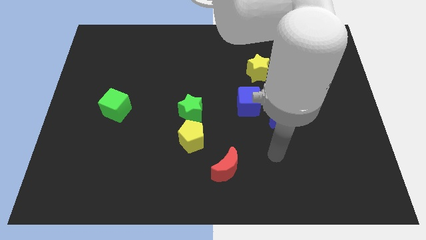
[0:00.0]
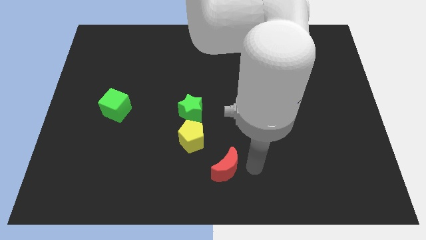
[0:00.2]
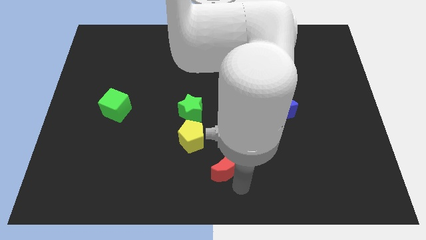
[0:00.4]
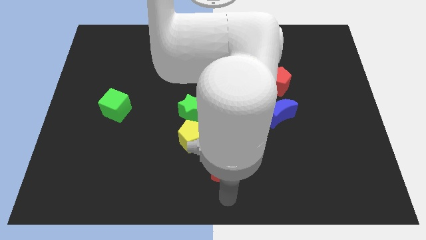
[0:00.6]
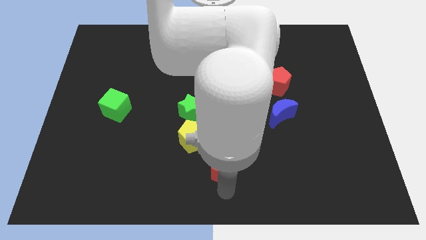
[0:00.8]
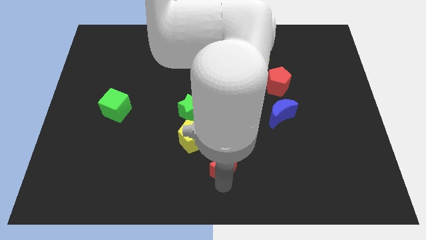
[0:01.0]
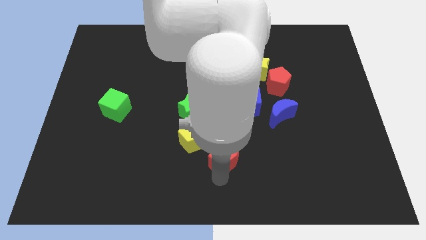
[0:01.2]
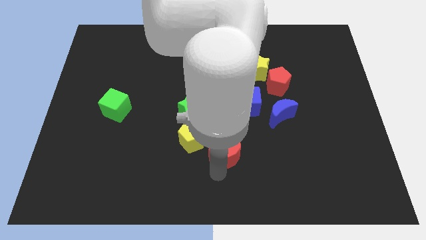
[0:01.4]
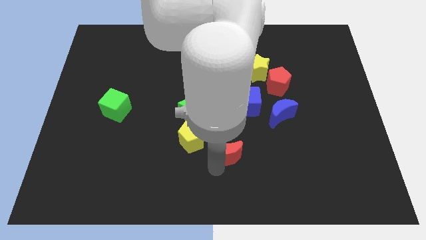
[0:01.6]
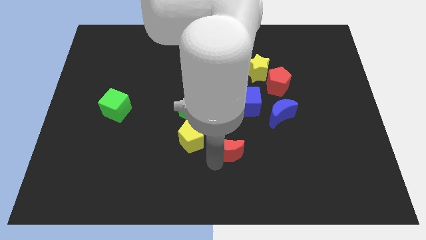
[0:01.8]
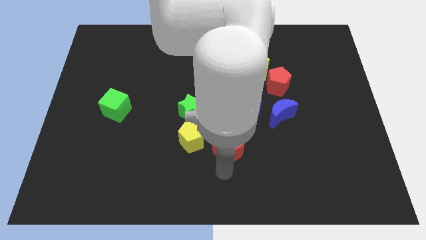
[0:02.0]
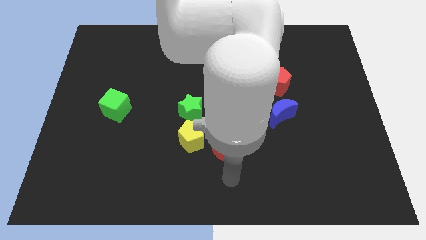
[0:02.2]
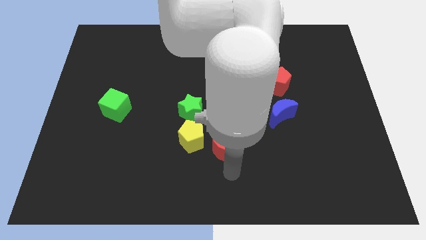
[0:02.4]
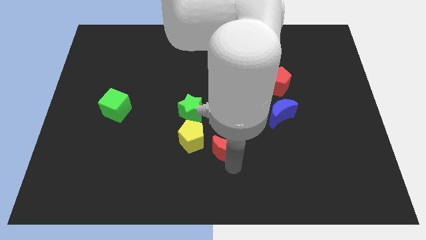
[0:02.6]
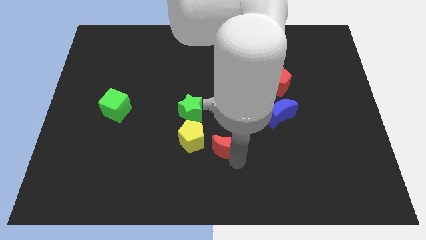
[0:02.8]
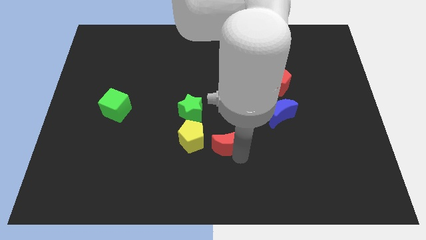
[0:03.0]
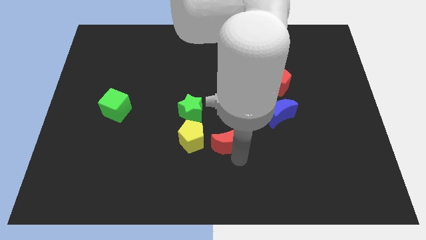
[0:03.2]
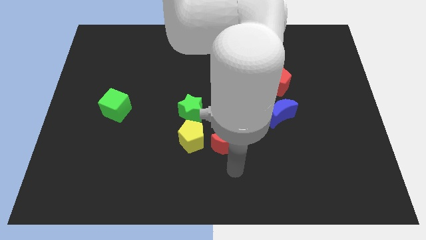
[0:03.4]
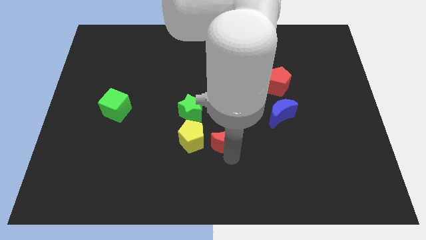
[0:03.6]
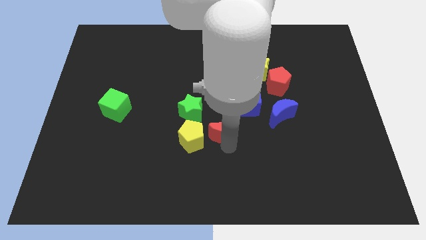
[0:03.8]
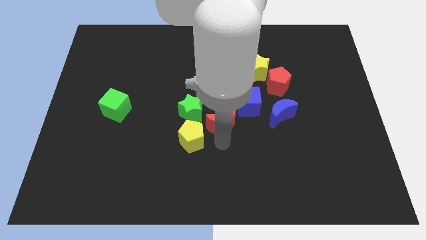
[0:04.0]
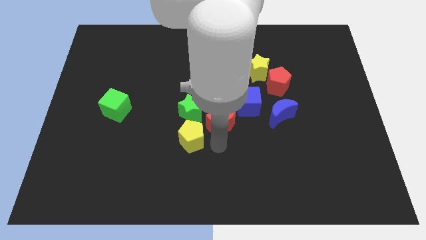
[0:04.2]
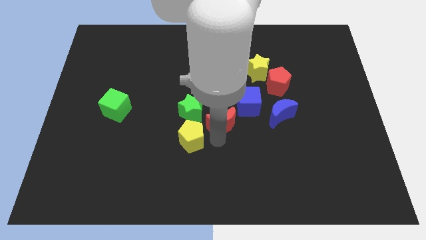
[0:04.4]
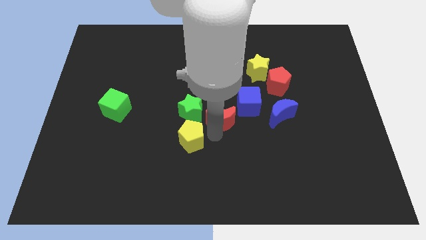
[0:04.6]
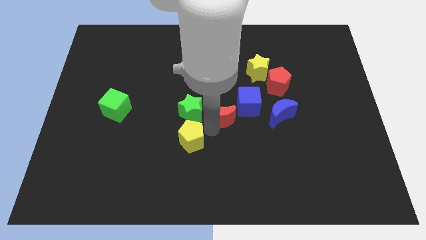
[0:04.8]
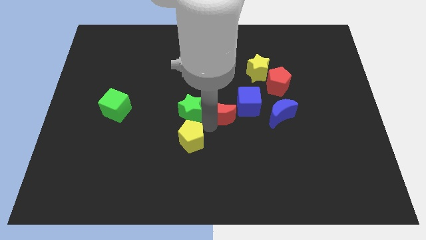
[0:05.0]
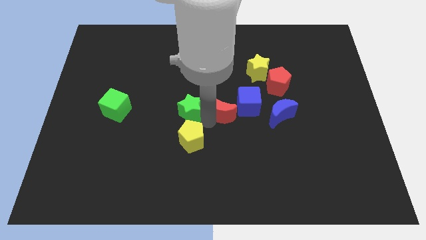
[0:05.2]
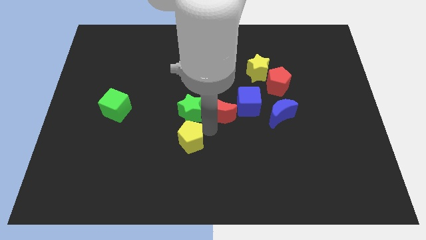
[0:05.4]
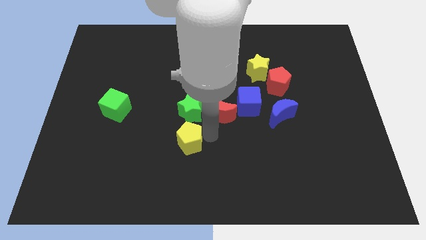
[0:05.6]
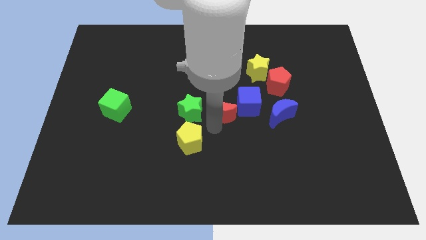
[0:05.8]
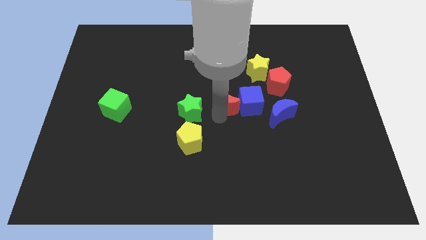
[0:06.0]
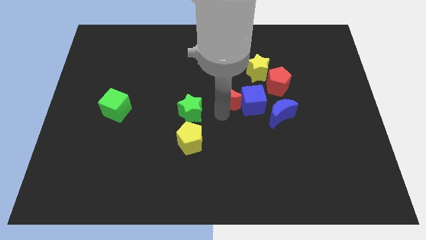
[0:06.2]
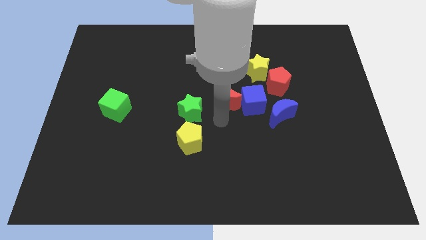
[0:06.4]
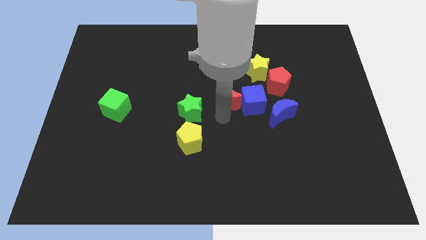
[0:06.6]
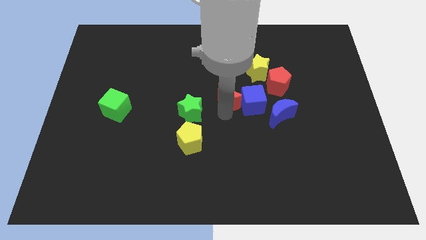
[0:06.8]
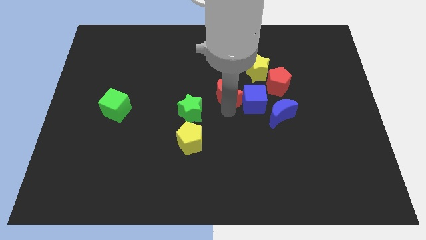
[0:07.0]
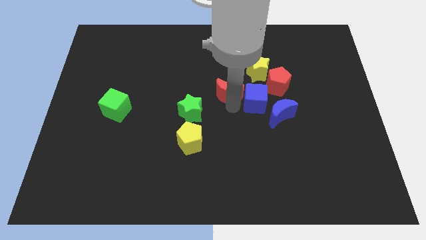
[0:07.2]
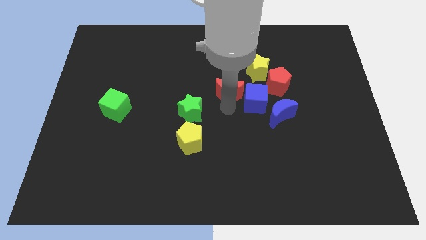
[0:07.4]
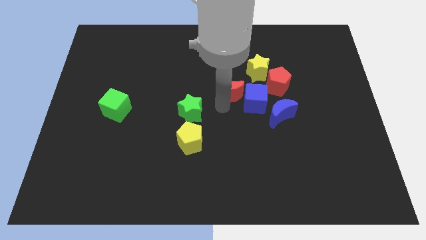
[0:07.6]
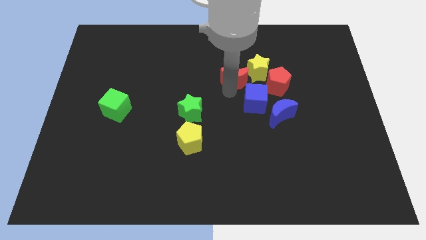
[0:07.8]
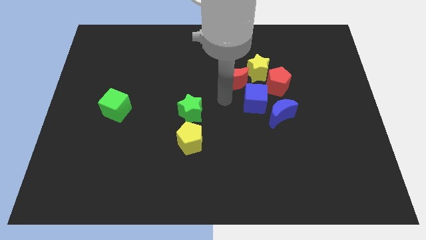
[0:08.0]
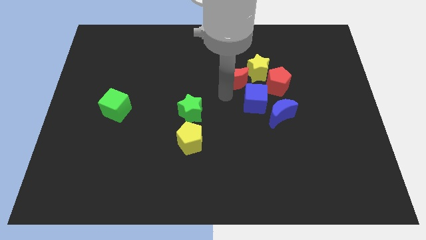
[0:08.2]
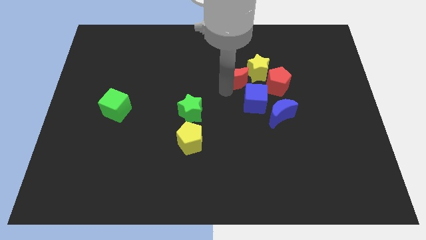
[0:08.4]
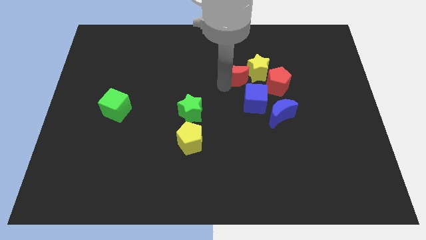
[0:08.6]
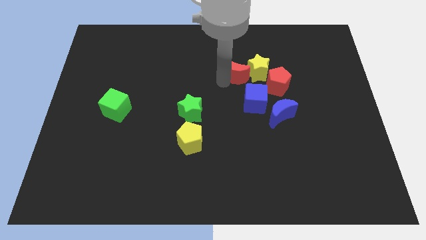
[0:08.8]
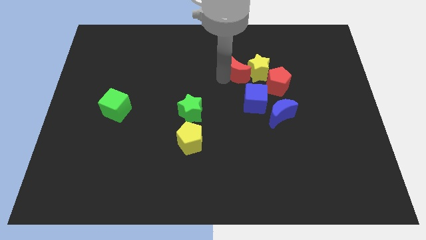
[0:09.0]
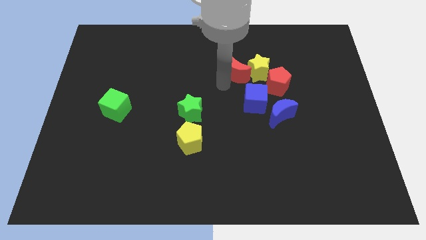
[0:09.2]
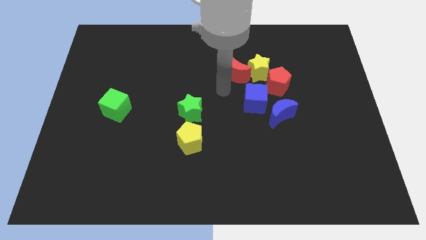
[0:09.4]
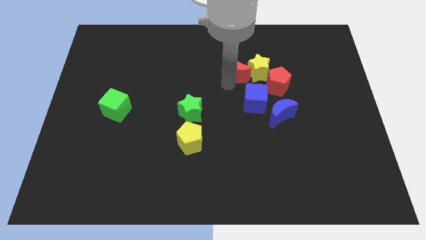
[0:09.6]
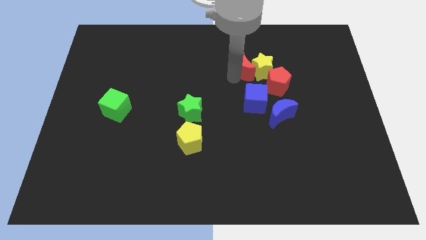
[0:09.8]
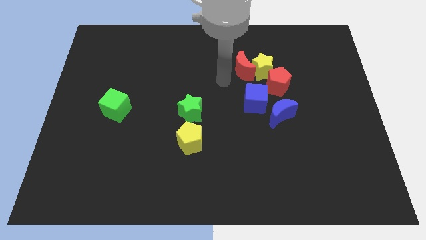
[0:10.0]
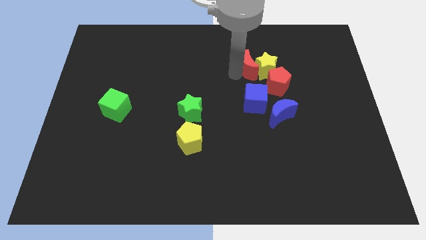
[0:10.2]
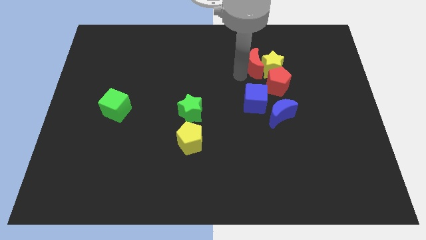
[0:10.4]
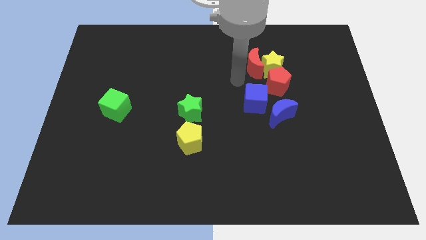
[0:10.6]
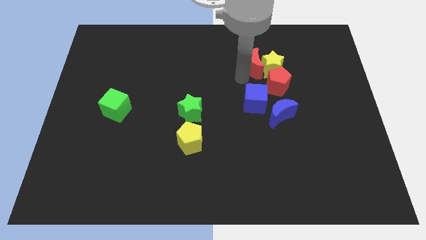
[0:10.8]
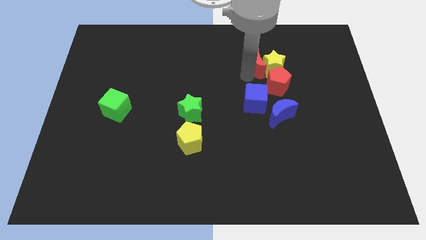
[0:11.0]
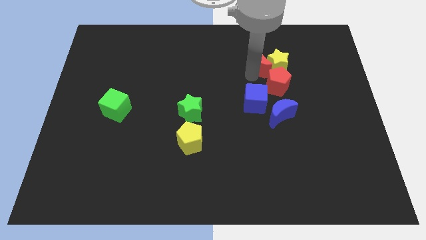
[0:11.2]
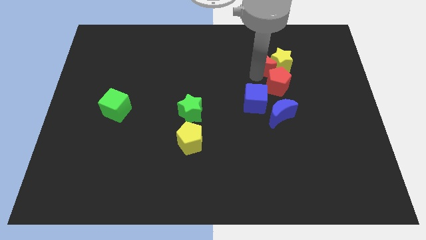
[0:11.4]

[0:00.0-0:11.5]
push the red moon to the top side of the blue moon
